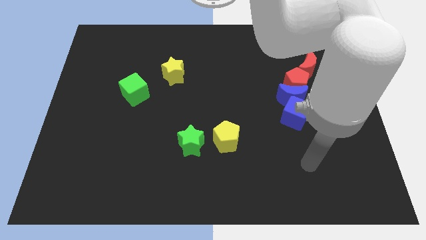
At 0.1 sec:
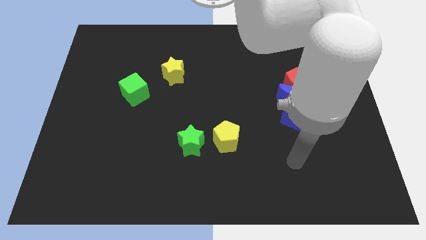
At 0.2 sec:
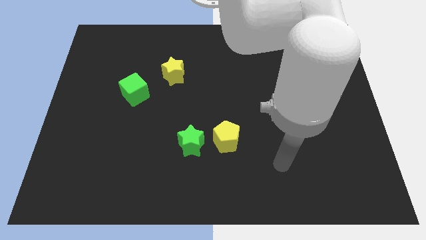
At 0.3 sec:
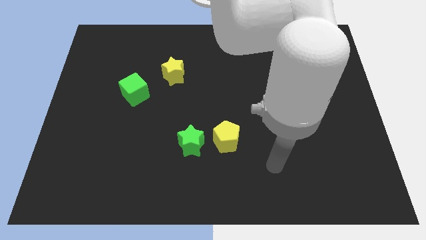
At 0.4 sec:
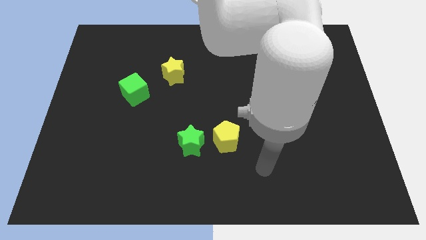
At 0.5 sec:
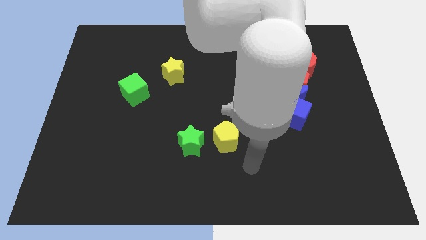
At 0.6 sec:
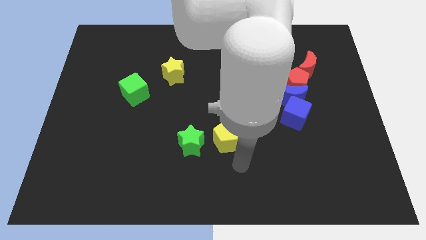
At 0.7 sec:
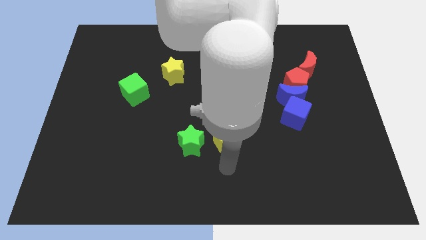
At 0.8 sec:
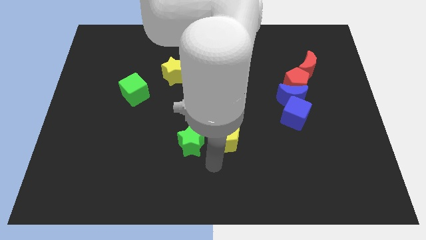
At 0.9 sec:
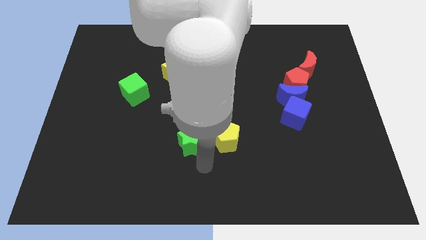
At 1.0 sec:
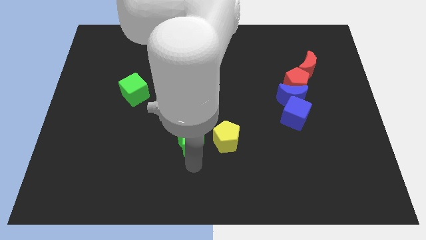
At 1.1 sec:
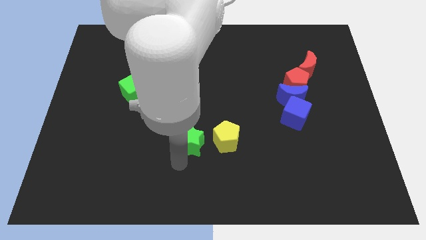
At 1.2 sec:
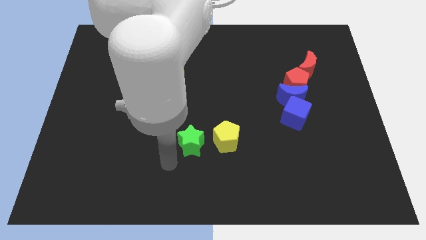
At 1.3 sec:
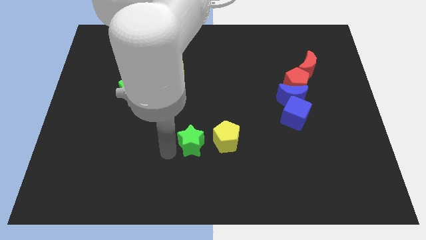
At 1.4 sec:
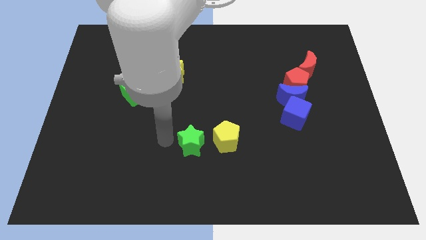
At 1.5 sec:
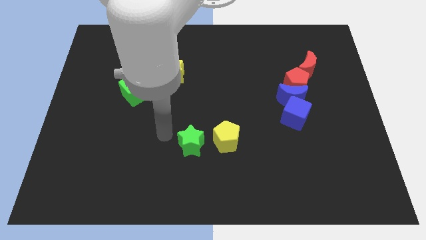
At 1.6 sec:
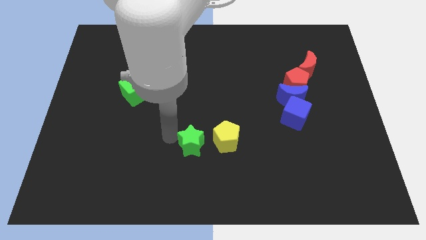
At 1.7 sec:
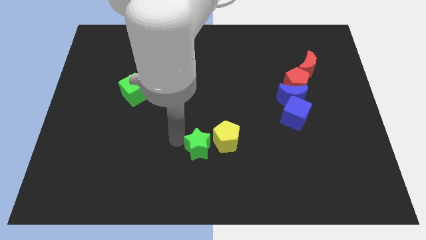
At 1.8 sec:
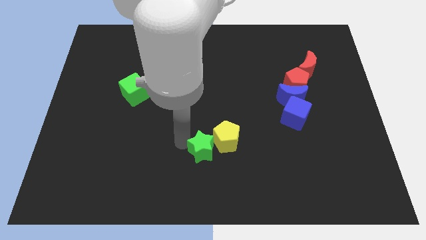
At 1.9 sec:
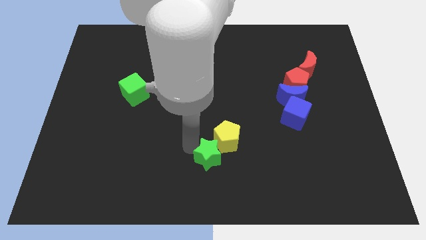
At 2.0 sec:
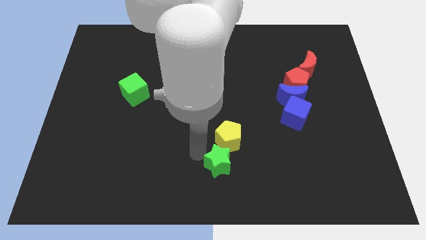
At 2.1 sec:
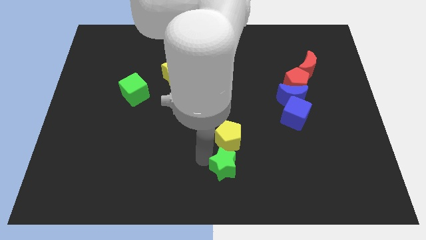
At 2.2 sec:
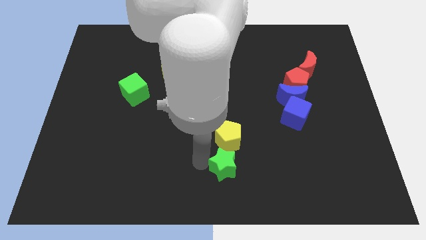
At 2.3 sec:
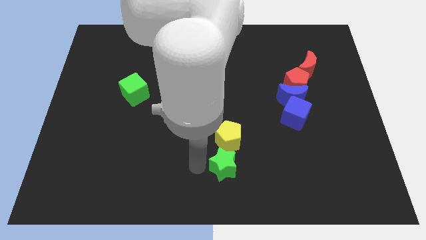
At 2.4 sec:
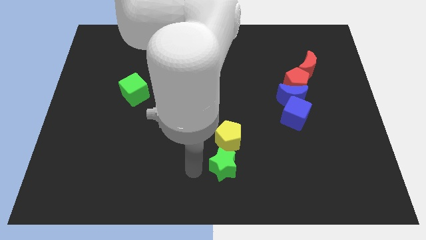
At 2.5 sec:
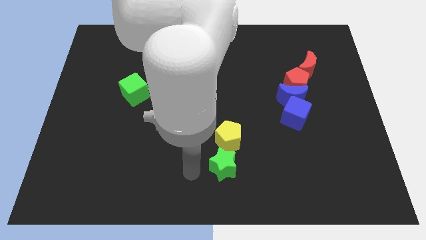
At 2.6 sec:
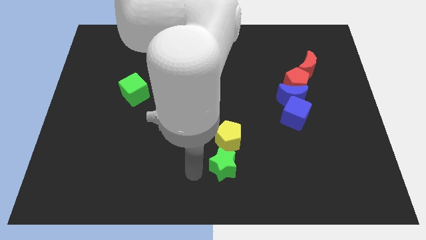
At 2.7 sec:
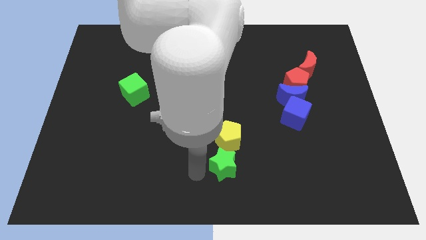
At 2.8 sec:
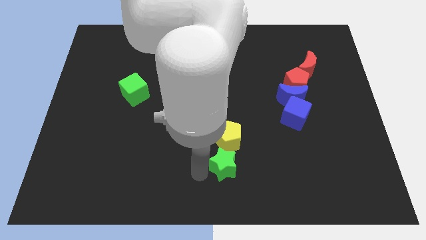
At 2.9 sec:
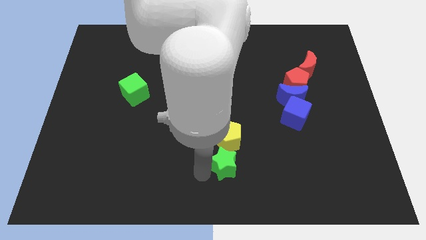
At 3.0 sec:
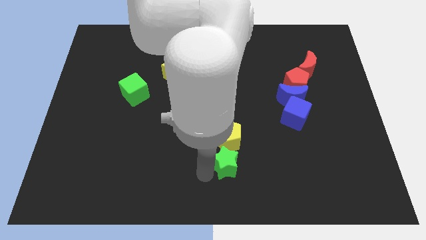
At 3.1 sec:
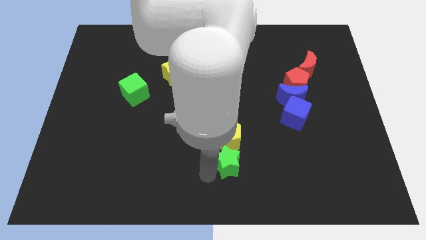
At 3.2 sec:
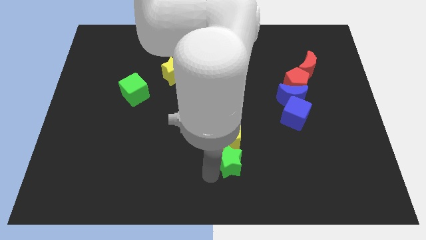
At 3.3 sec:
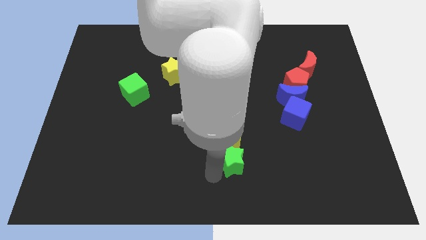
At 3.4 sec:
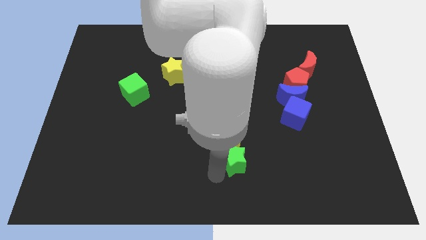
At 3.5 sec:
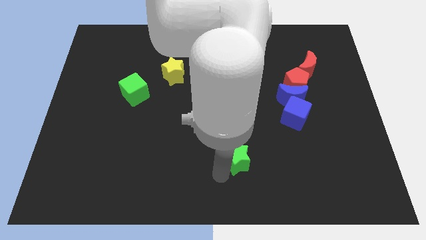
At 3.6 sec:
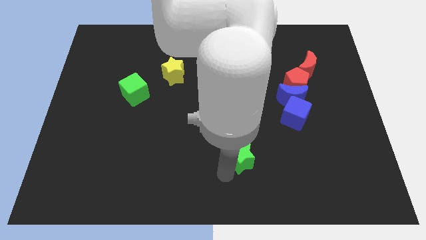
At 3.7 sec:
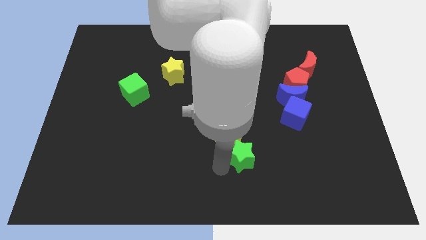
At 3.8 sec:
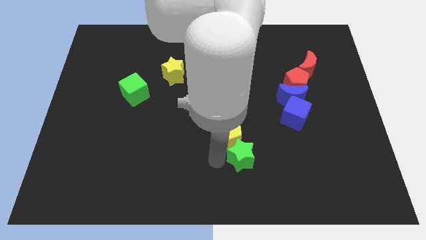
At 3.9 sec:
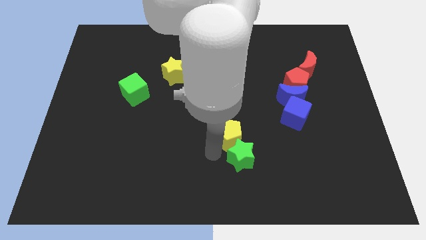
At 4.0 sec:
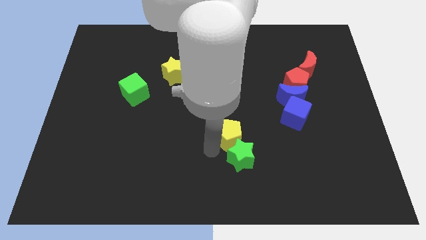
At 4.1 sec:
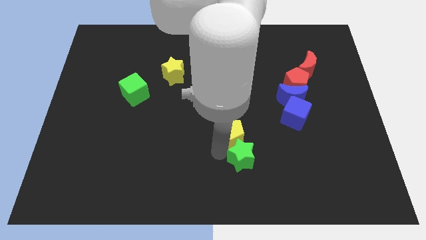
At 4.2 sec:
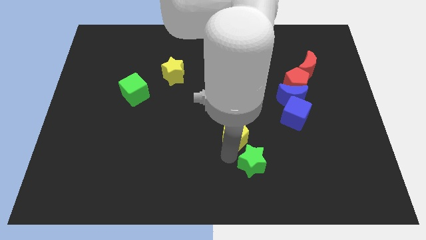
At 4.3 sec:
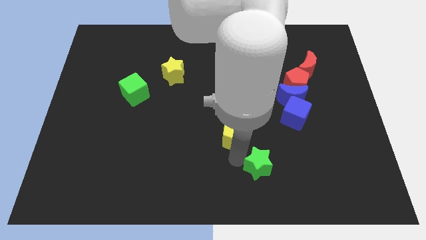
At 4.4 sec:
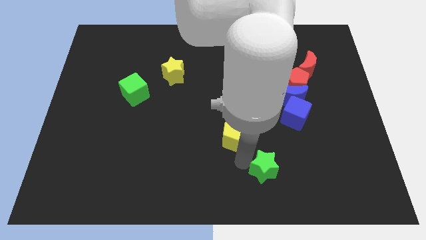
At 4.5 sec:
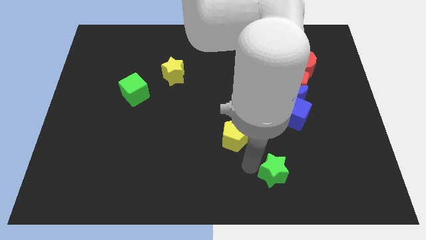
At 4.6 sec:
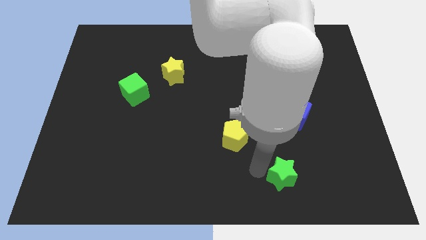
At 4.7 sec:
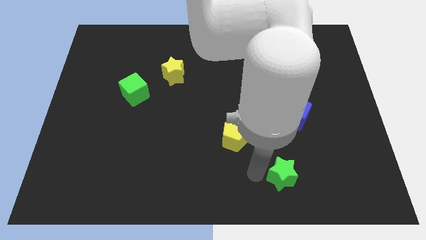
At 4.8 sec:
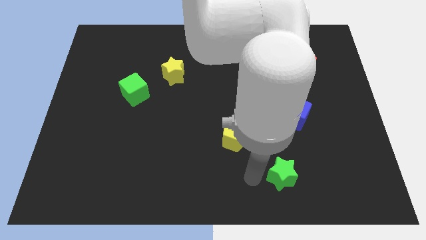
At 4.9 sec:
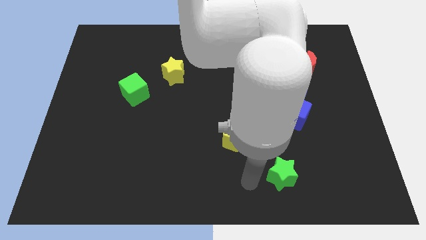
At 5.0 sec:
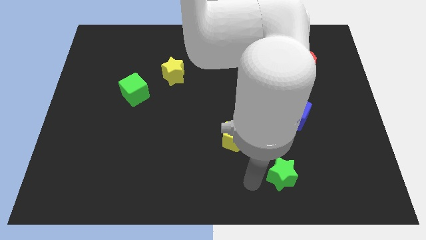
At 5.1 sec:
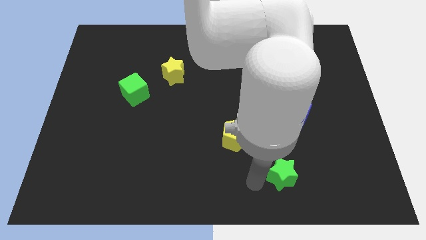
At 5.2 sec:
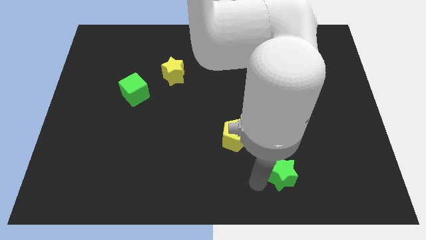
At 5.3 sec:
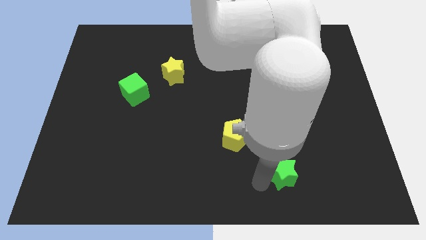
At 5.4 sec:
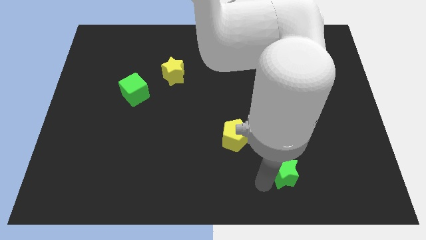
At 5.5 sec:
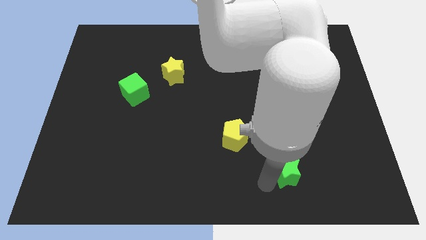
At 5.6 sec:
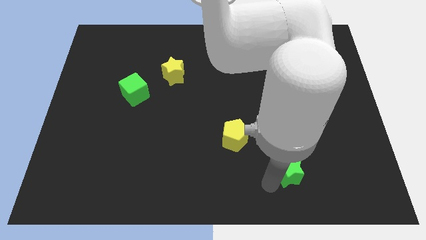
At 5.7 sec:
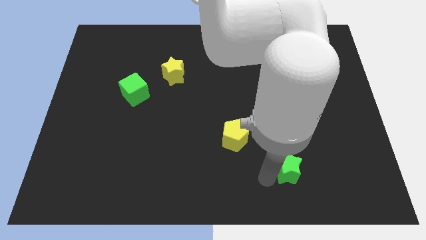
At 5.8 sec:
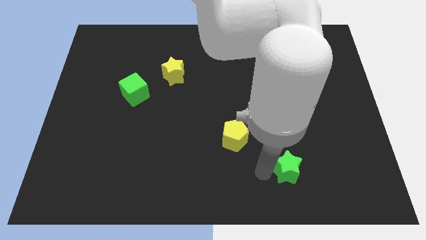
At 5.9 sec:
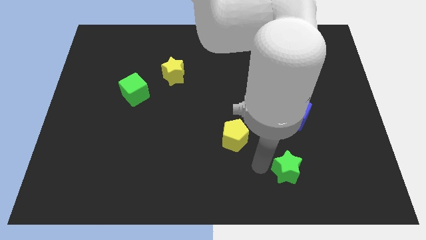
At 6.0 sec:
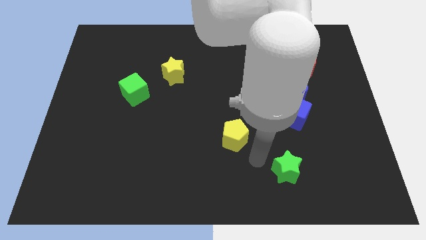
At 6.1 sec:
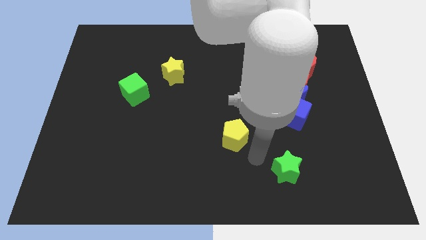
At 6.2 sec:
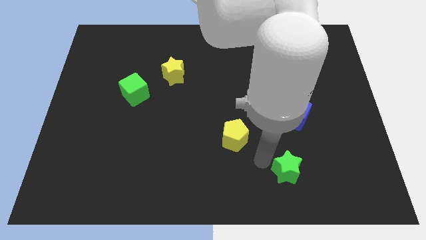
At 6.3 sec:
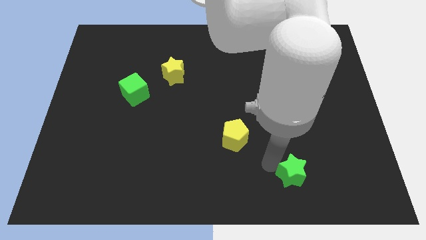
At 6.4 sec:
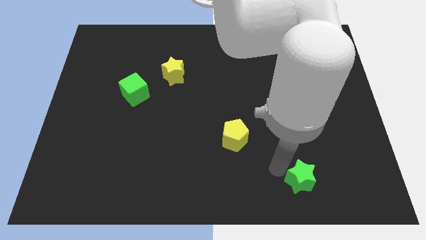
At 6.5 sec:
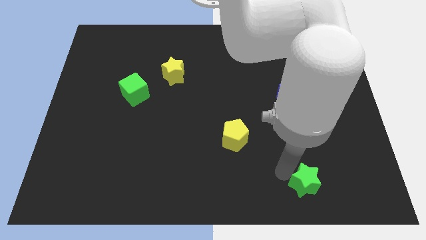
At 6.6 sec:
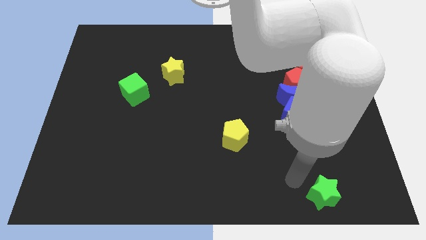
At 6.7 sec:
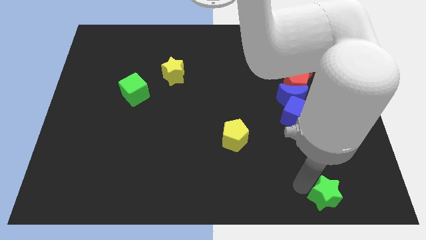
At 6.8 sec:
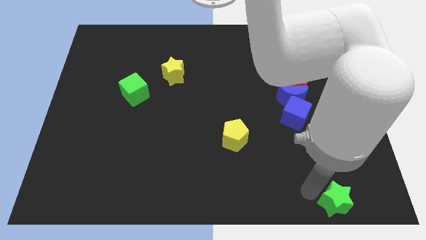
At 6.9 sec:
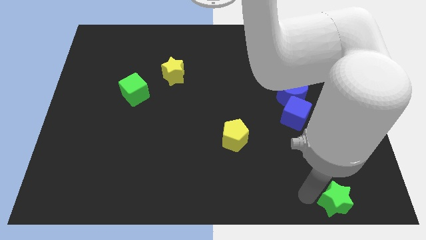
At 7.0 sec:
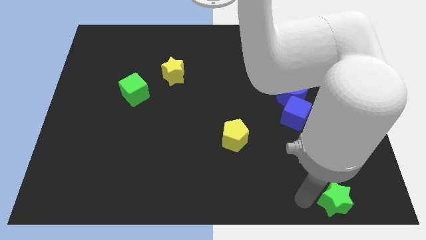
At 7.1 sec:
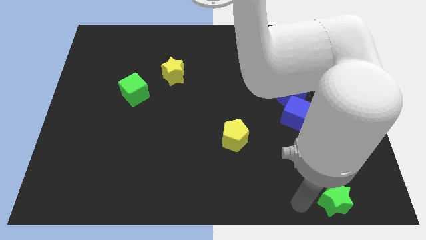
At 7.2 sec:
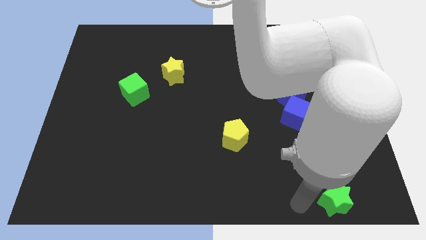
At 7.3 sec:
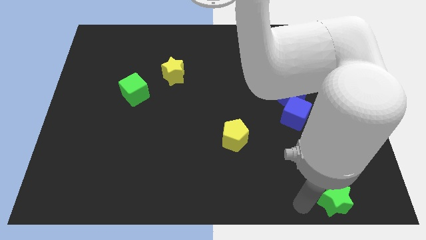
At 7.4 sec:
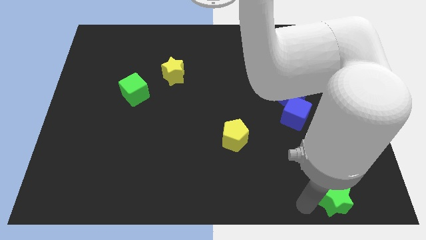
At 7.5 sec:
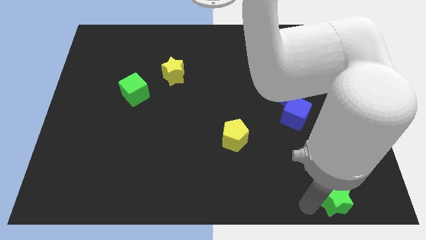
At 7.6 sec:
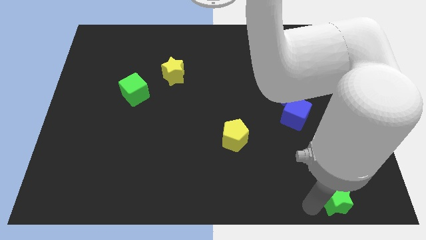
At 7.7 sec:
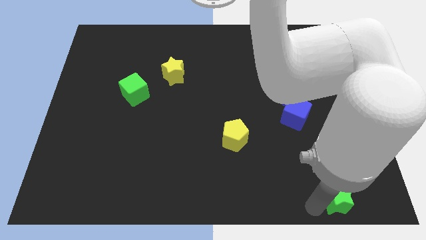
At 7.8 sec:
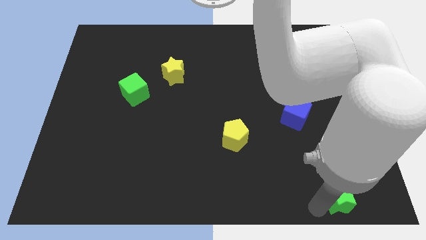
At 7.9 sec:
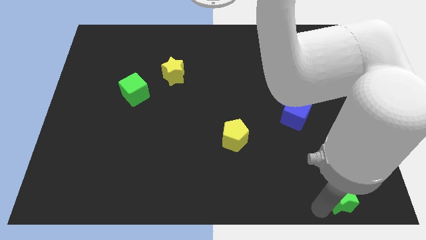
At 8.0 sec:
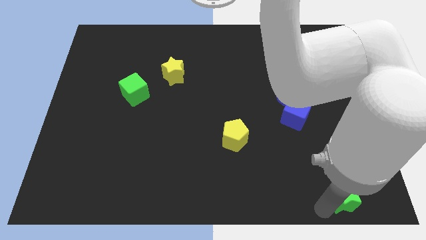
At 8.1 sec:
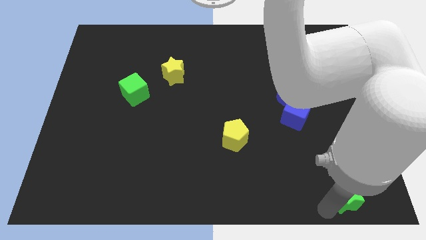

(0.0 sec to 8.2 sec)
put the green star to the bottom right corner
